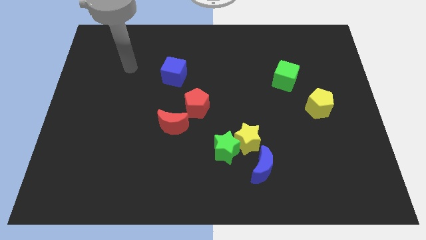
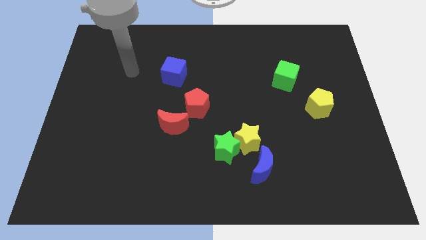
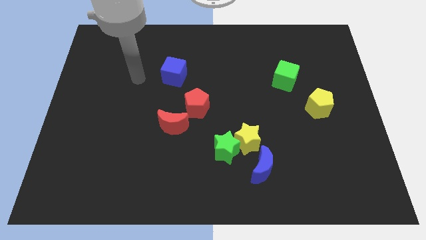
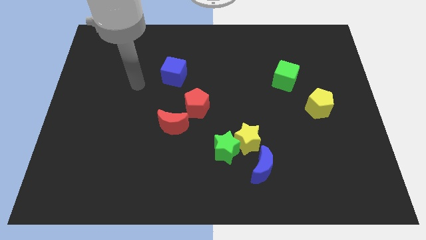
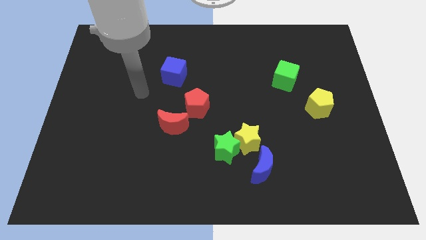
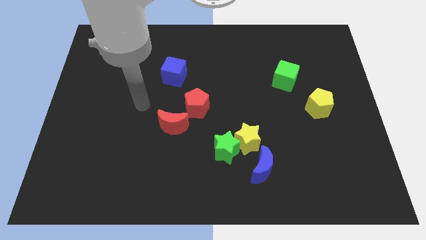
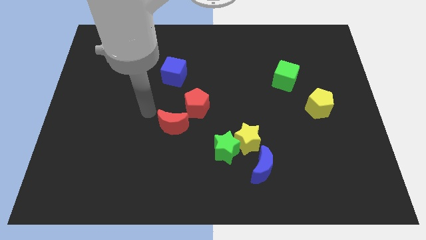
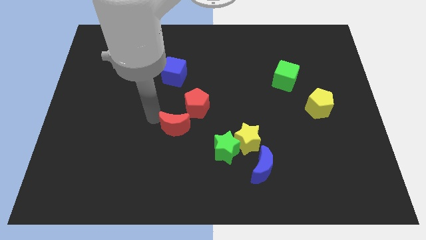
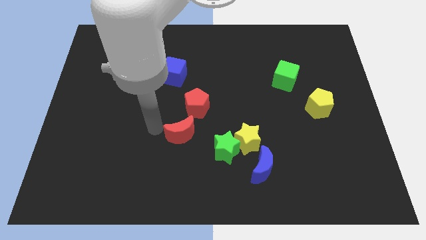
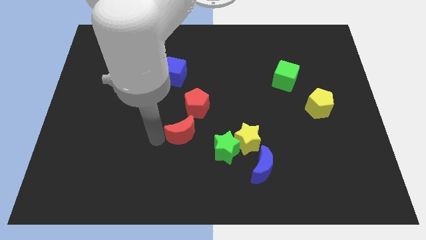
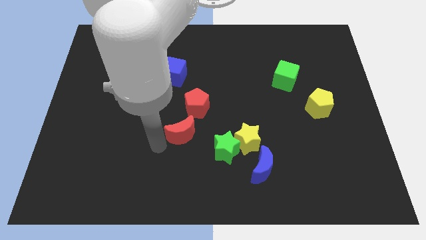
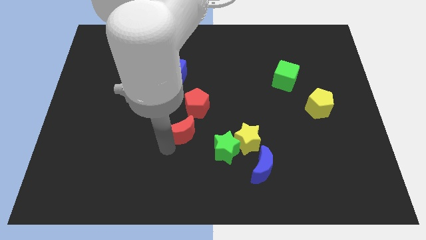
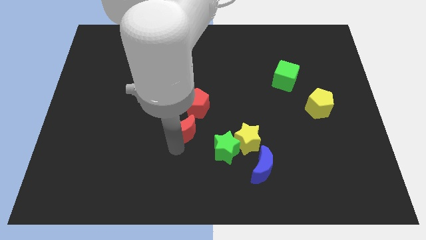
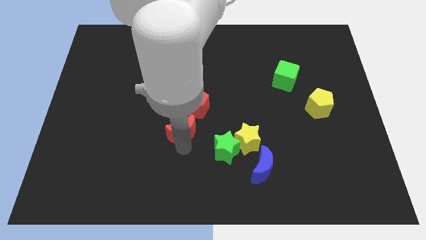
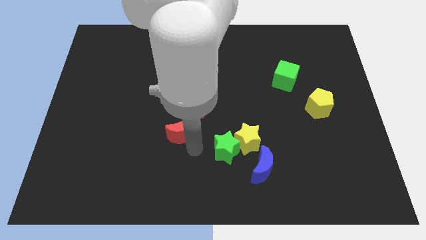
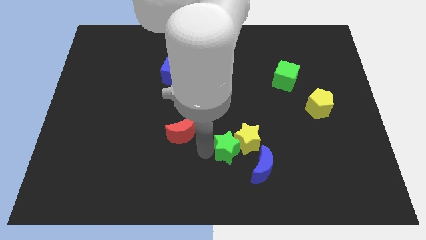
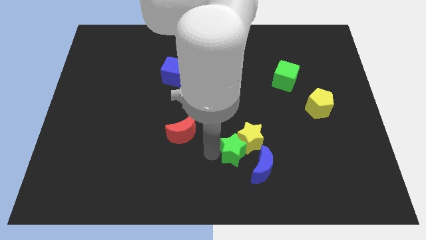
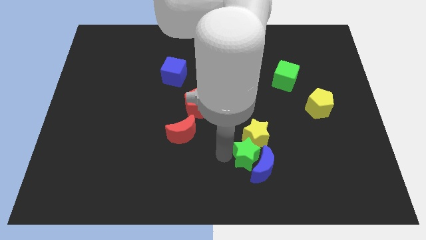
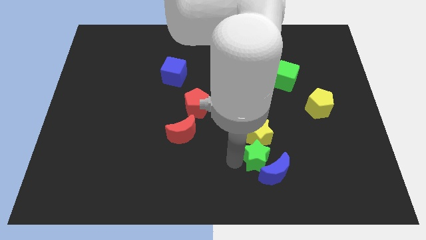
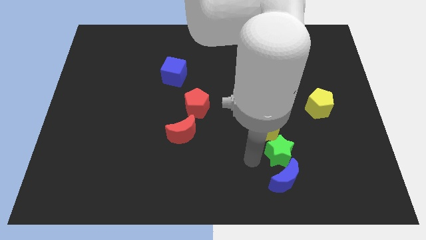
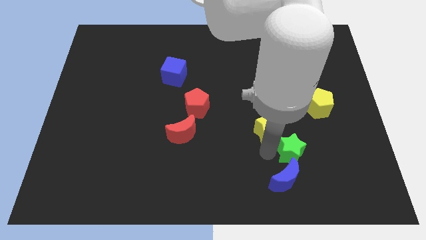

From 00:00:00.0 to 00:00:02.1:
move the yellow star away from the green star and blue moon

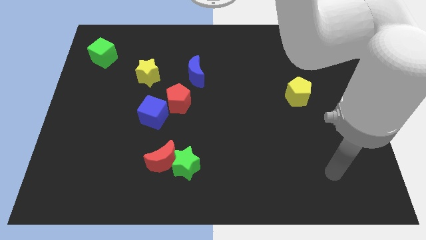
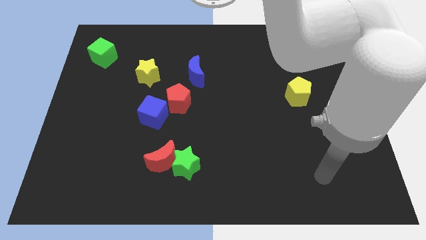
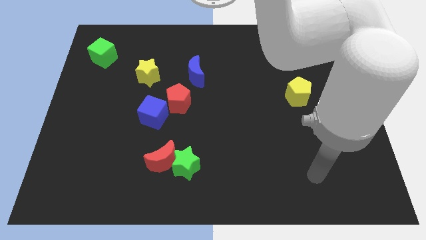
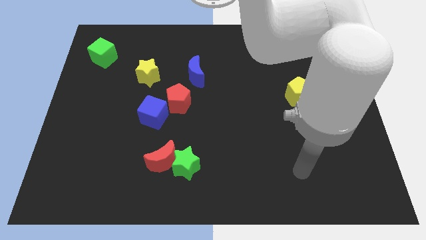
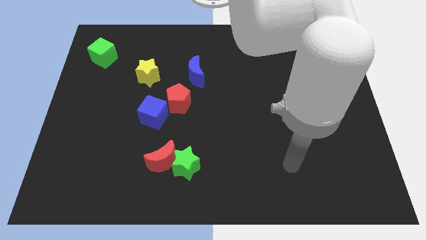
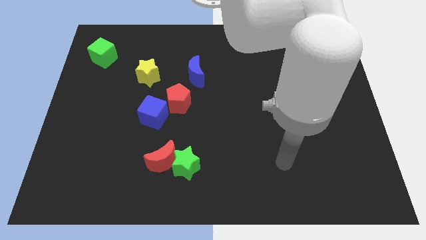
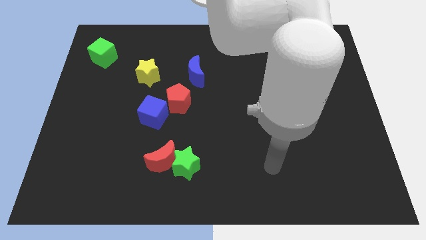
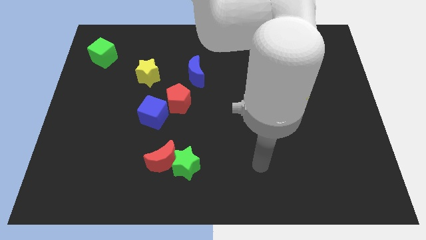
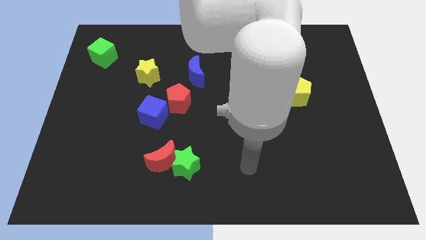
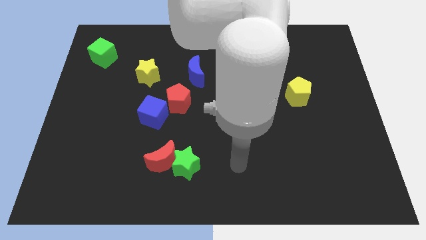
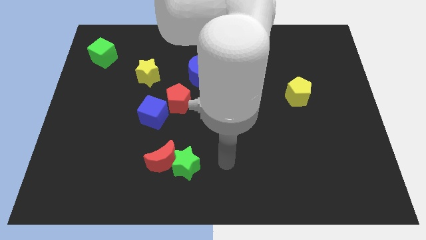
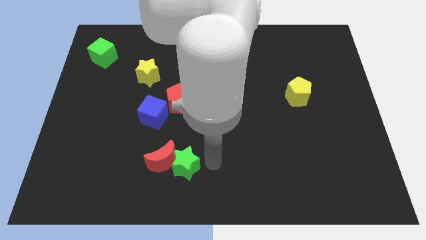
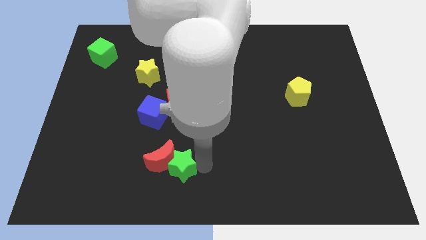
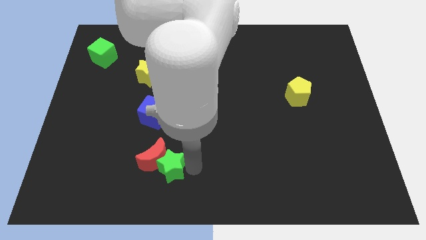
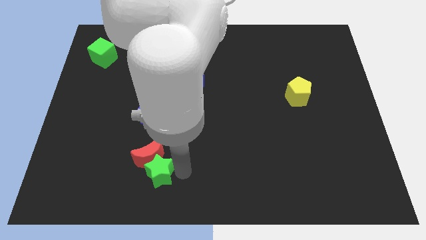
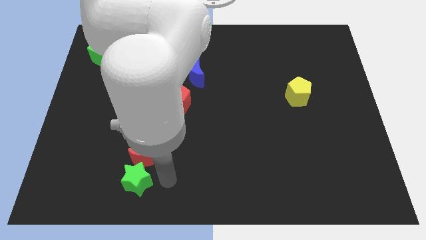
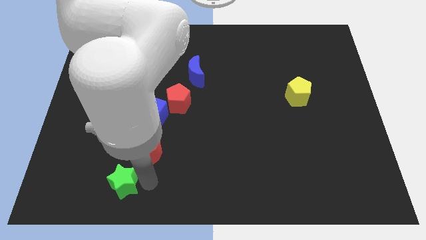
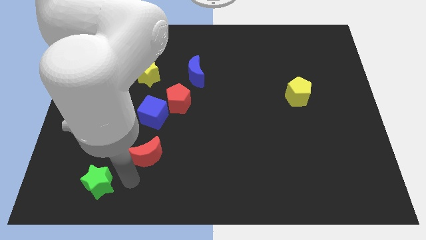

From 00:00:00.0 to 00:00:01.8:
separate the red moon from the green star

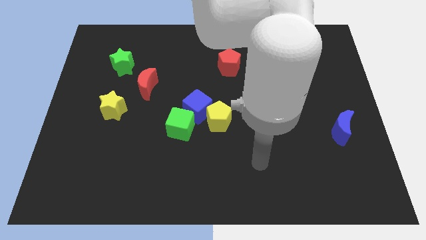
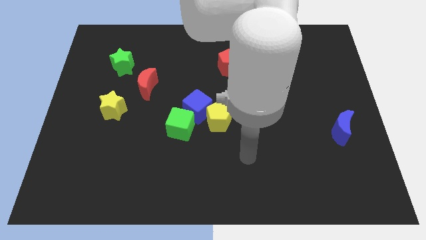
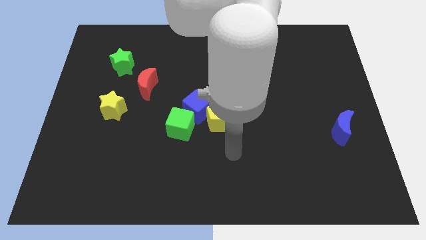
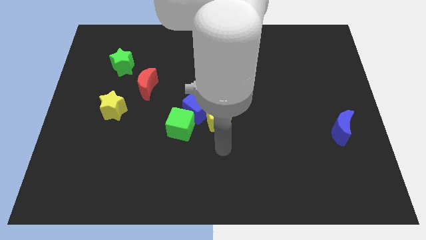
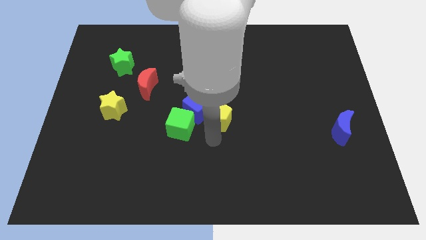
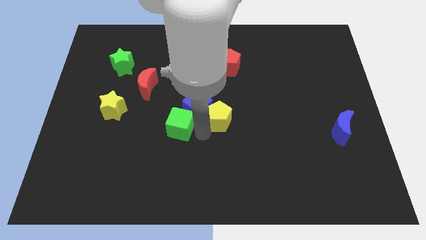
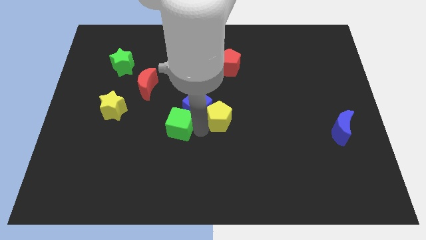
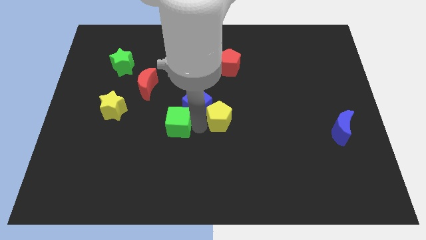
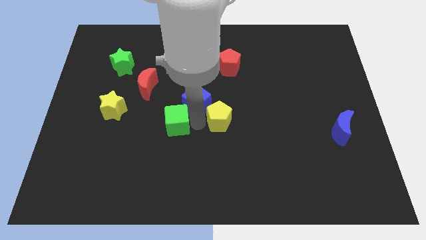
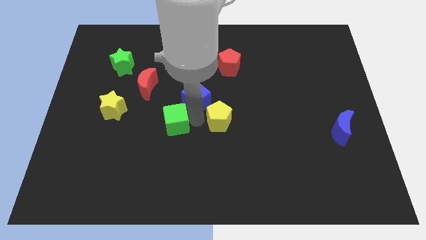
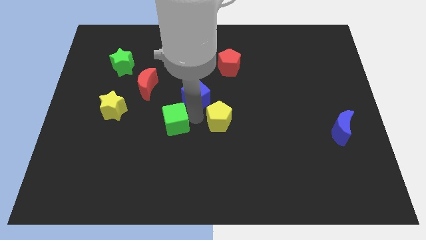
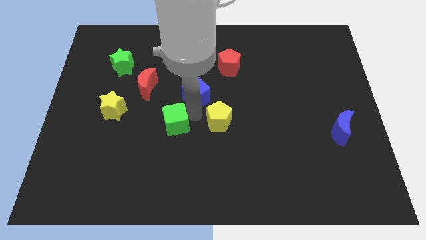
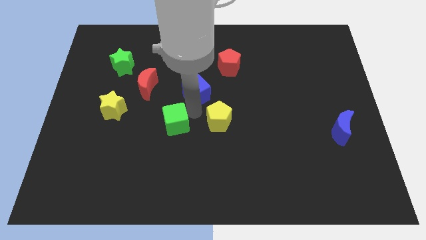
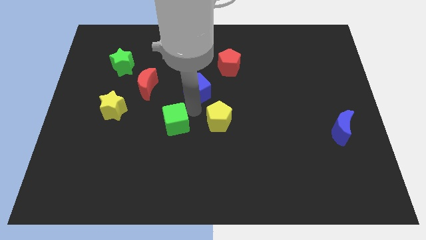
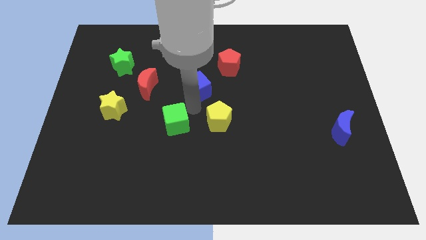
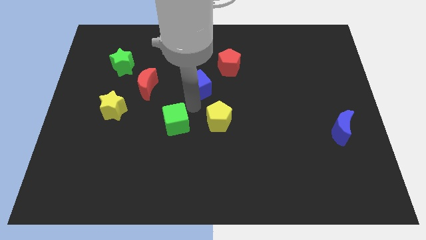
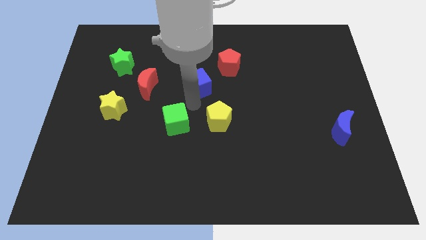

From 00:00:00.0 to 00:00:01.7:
separate the blue cube from the yellow pentagon and green cube

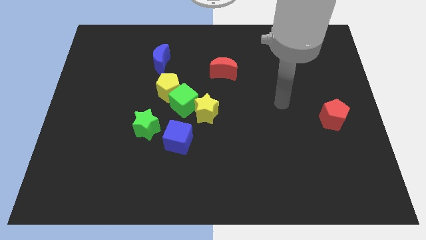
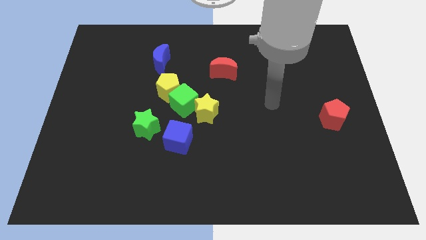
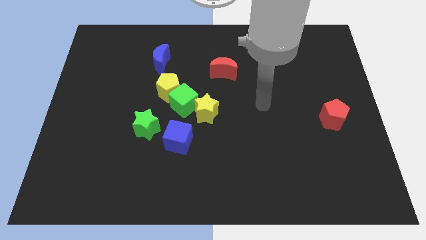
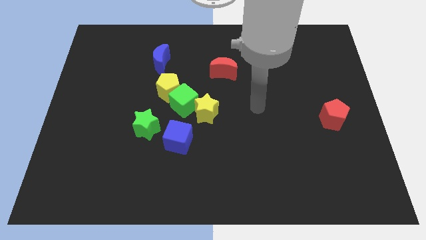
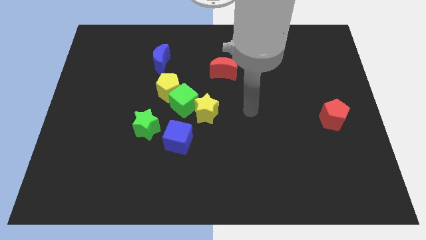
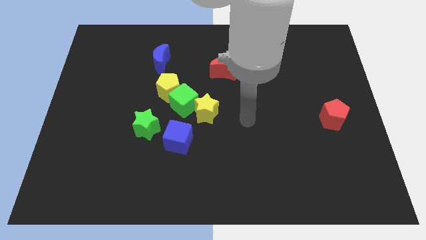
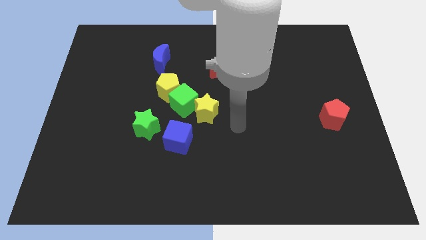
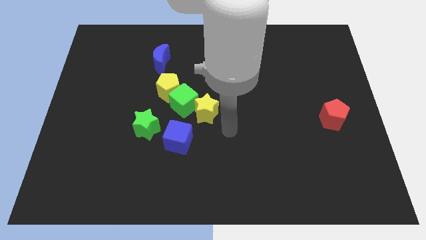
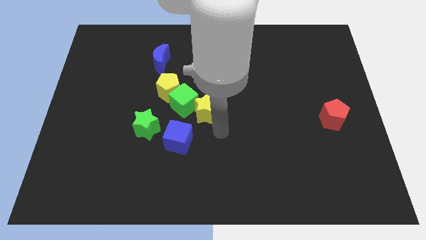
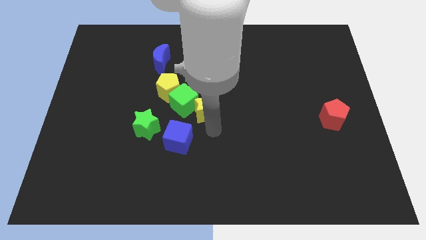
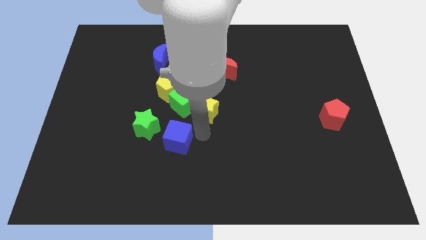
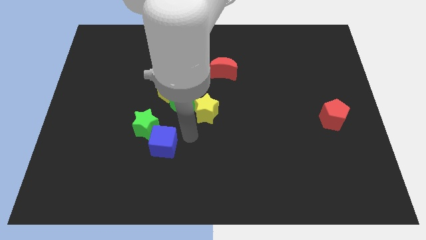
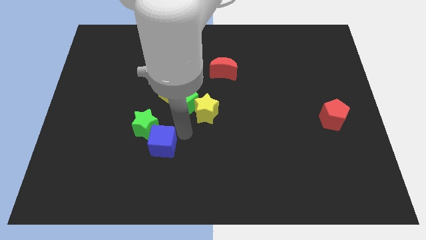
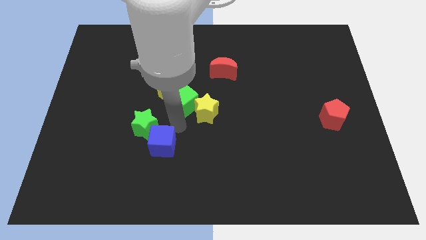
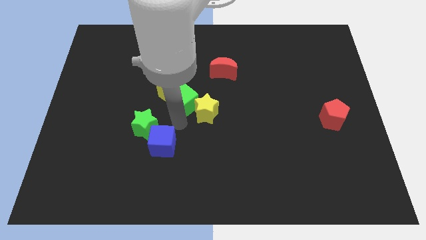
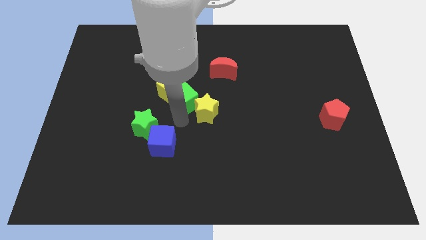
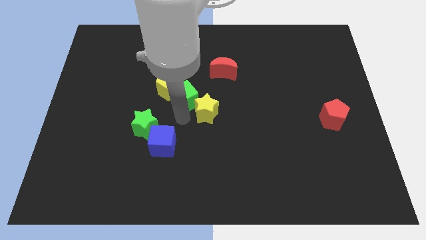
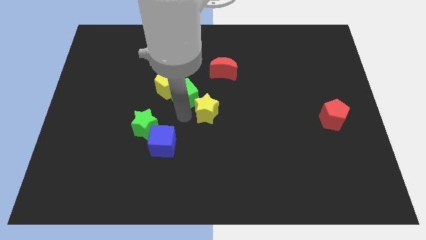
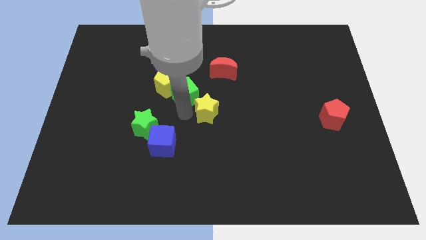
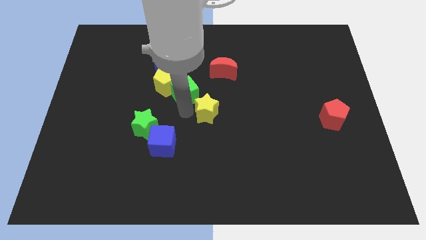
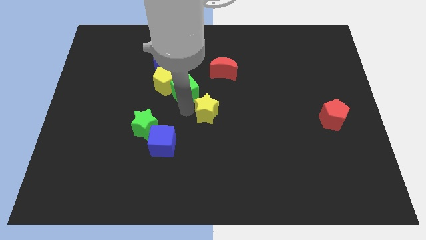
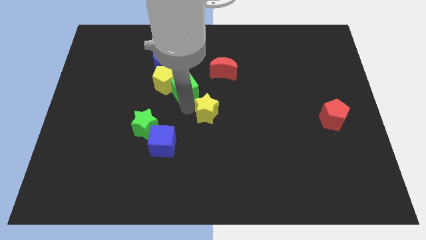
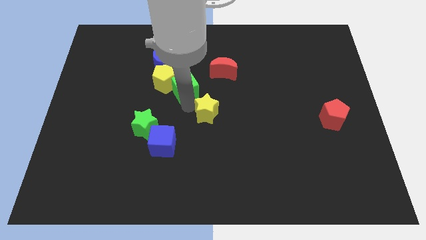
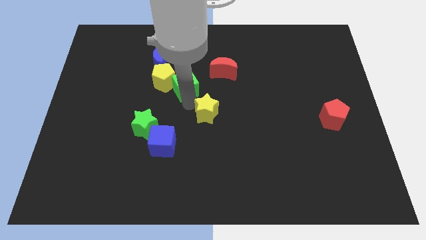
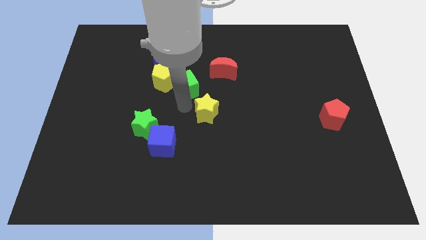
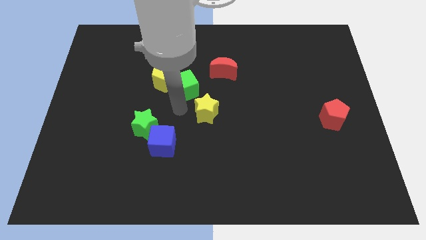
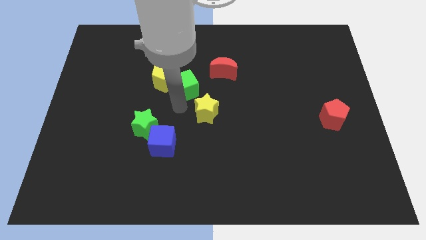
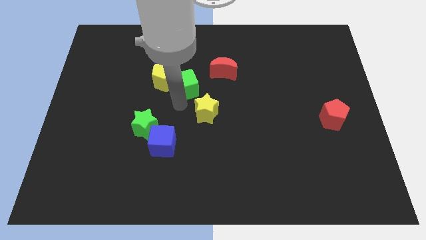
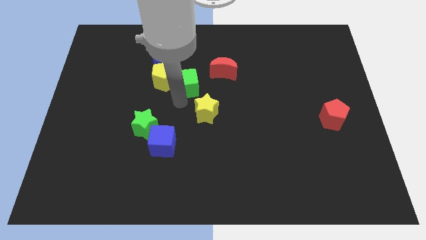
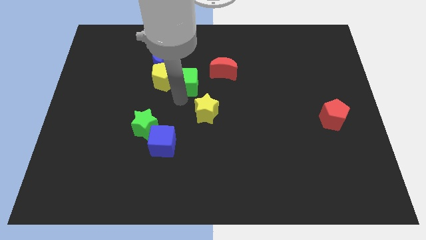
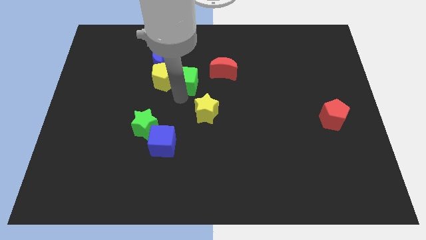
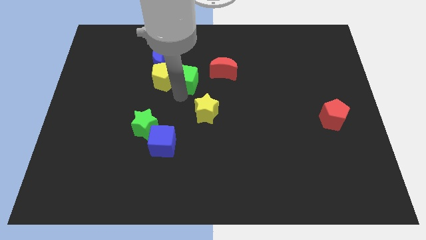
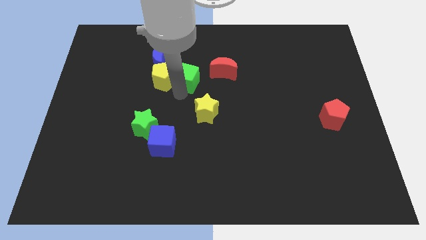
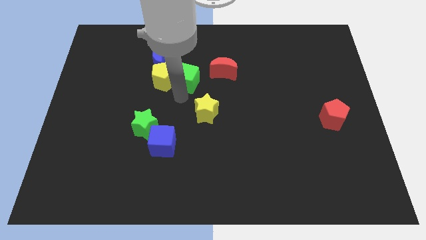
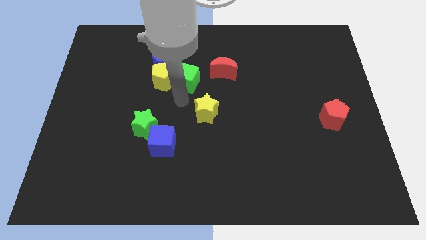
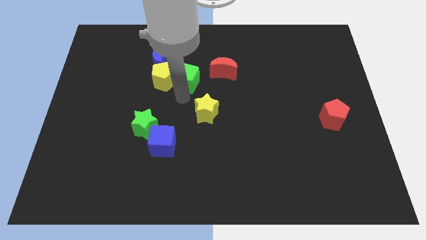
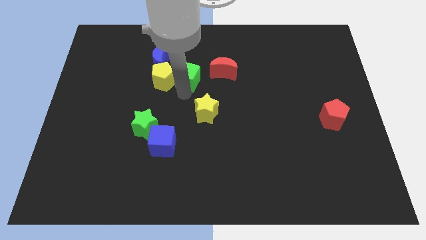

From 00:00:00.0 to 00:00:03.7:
move the green cube away from the group of blocks
